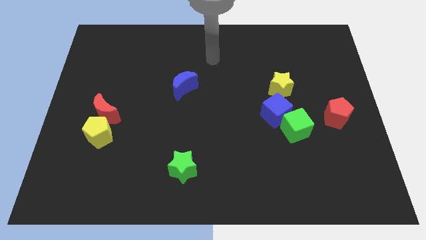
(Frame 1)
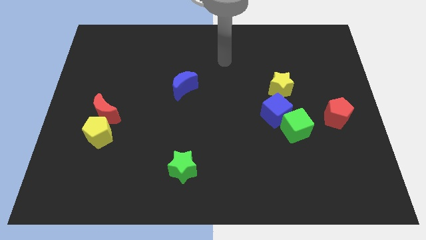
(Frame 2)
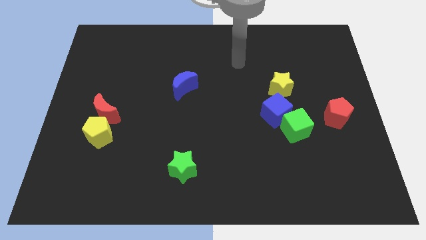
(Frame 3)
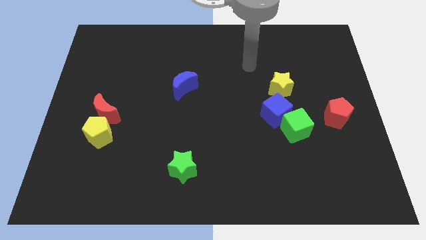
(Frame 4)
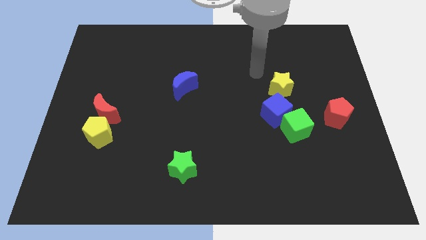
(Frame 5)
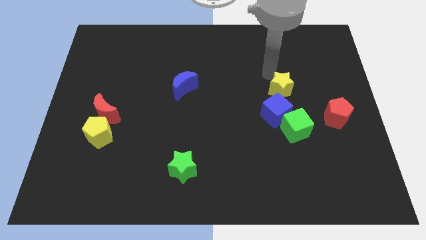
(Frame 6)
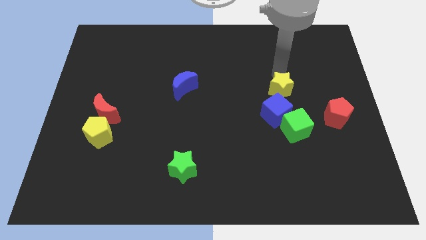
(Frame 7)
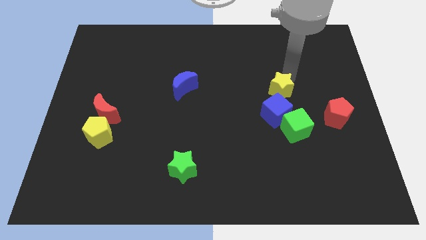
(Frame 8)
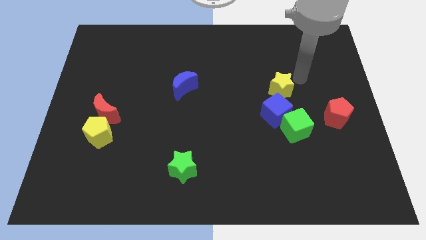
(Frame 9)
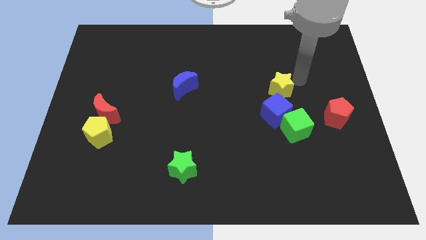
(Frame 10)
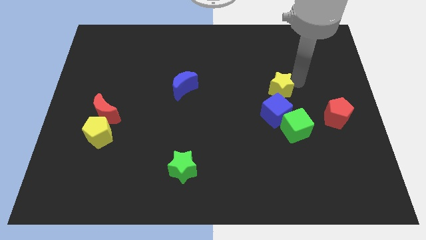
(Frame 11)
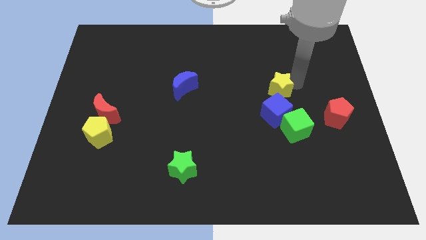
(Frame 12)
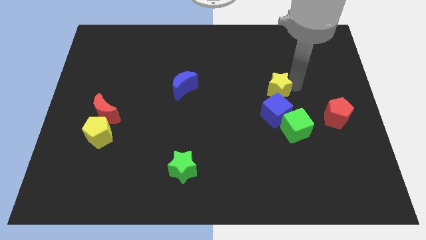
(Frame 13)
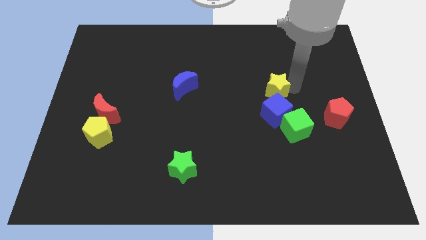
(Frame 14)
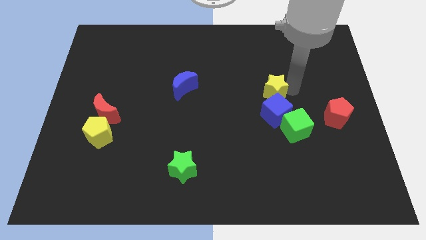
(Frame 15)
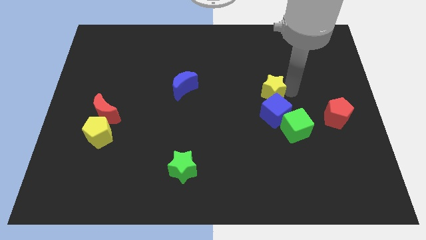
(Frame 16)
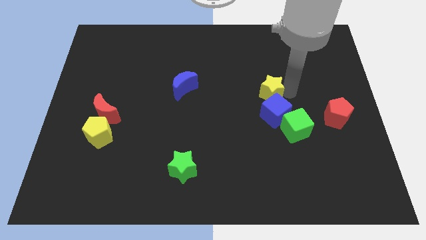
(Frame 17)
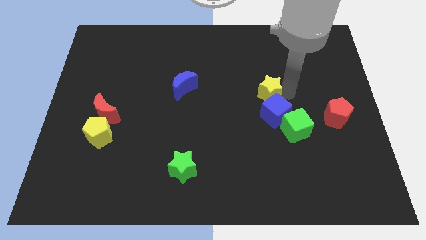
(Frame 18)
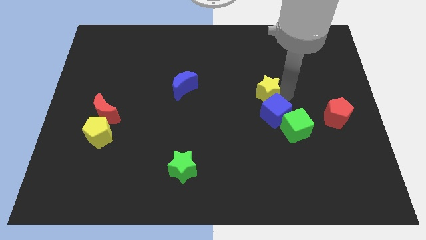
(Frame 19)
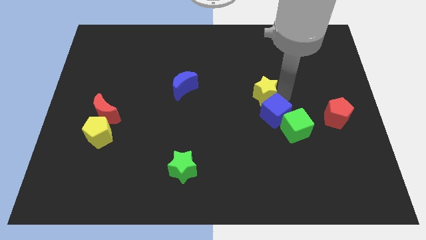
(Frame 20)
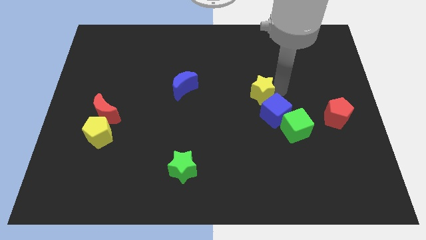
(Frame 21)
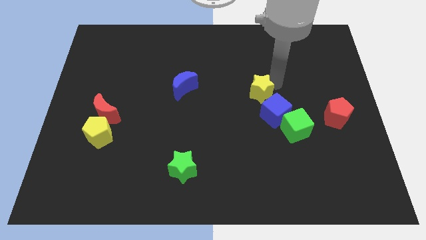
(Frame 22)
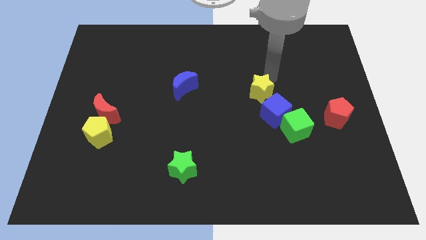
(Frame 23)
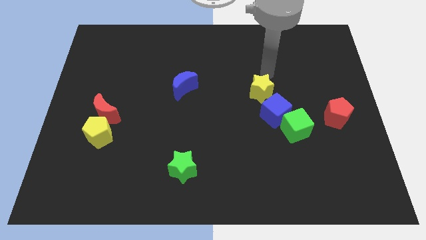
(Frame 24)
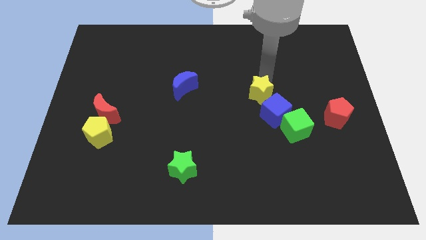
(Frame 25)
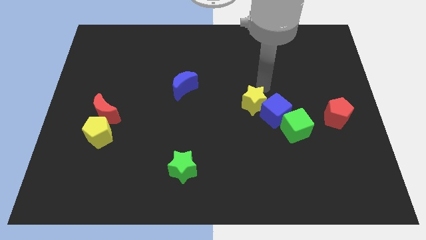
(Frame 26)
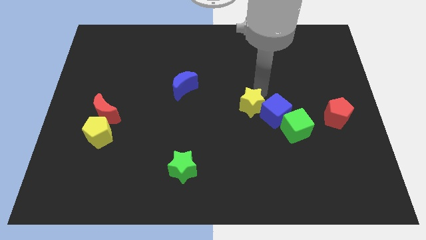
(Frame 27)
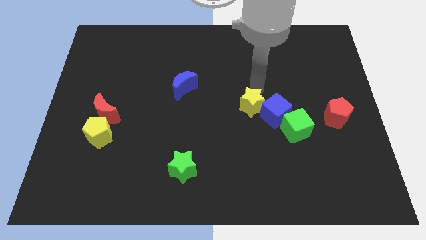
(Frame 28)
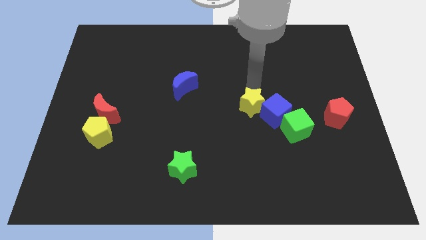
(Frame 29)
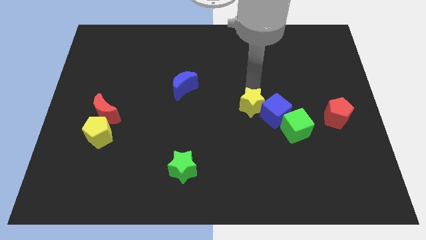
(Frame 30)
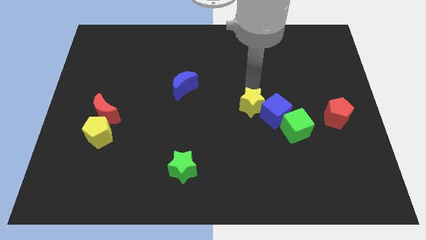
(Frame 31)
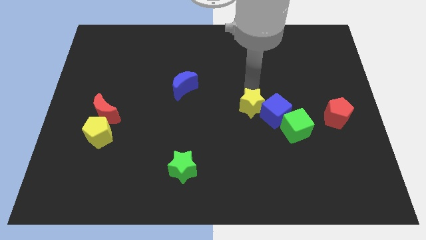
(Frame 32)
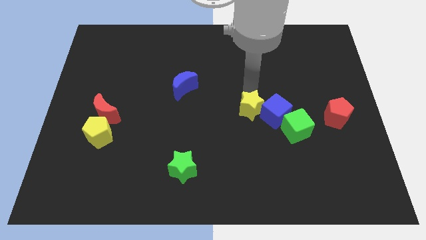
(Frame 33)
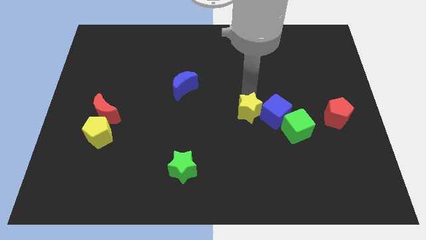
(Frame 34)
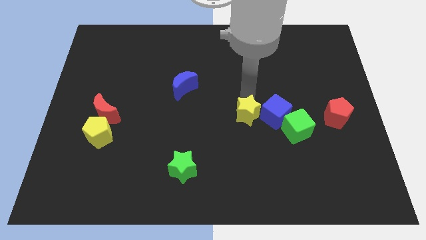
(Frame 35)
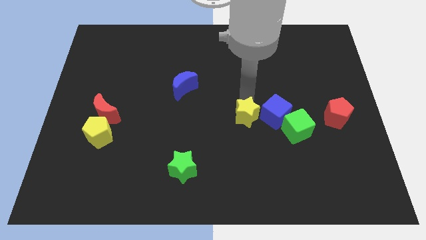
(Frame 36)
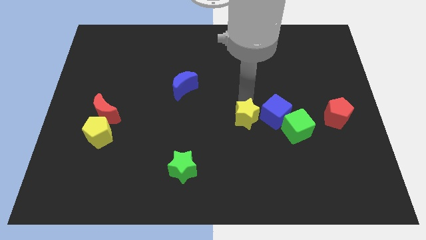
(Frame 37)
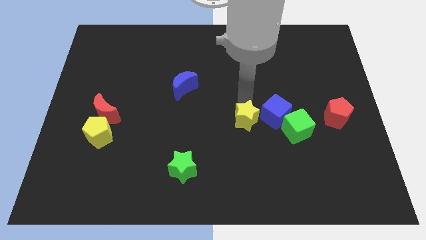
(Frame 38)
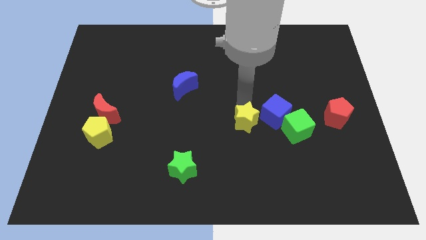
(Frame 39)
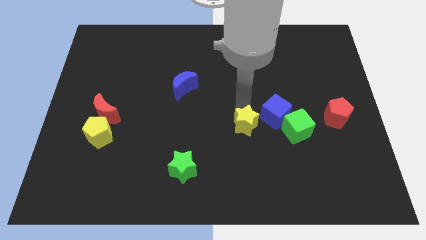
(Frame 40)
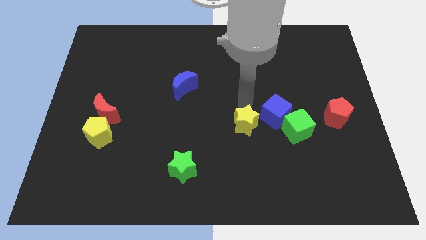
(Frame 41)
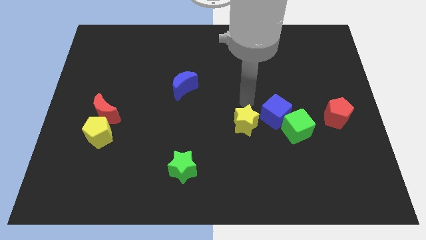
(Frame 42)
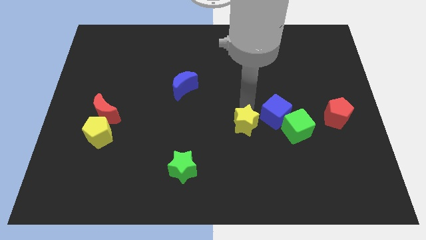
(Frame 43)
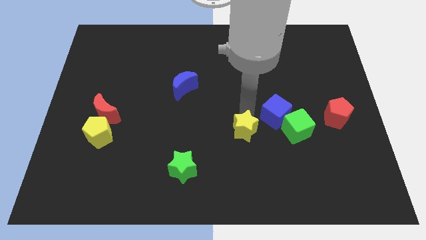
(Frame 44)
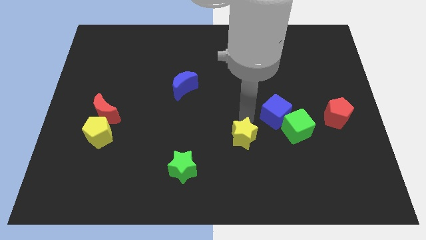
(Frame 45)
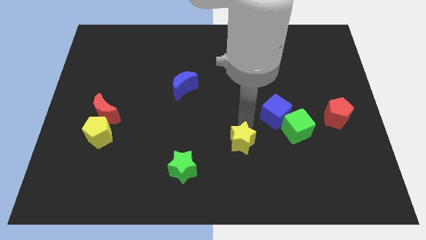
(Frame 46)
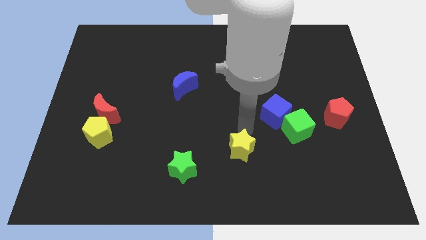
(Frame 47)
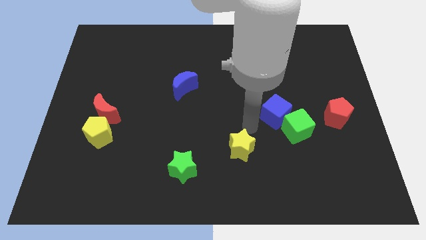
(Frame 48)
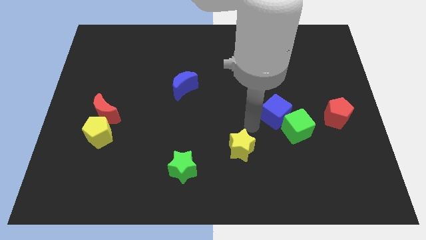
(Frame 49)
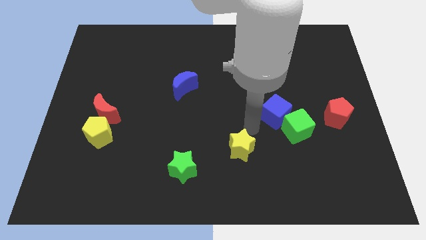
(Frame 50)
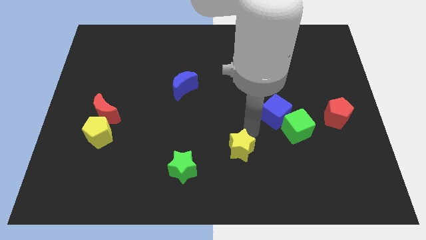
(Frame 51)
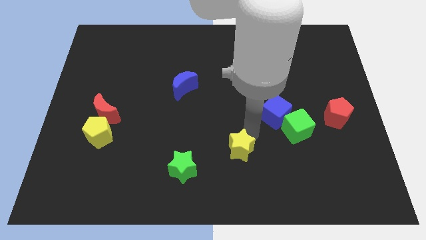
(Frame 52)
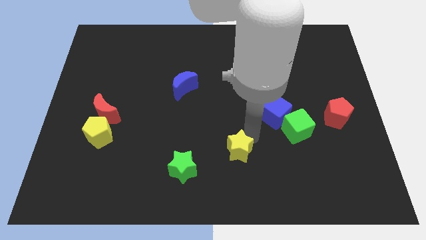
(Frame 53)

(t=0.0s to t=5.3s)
slide the yellow star just right of the green star

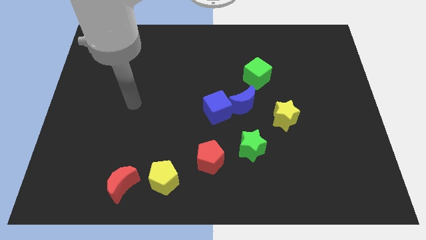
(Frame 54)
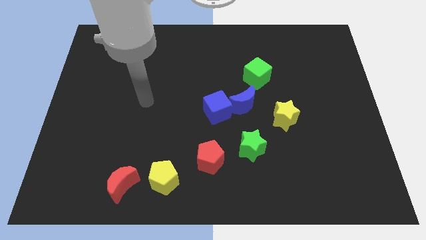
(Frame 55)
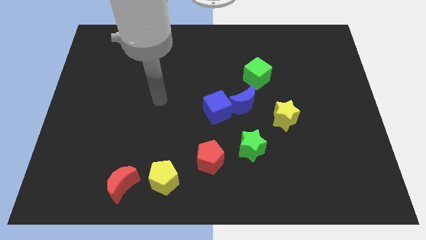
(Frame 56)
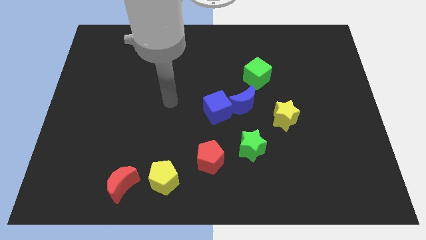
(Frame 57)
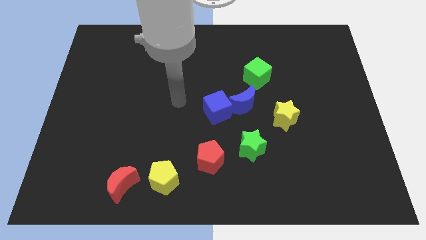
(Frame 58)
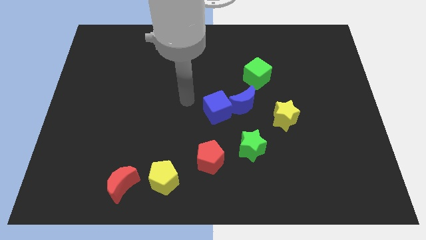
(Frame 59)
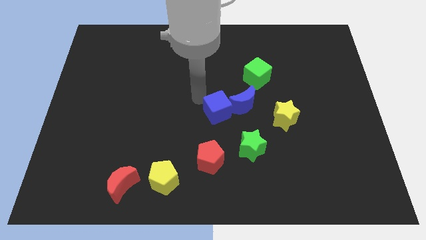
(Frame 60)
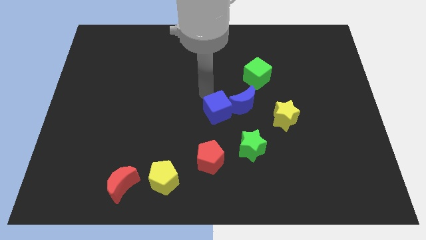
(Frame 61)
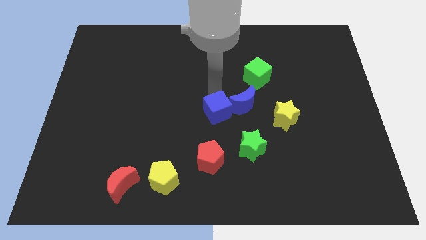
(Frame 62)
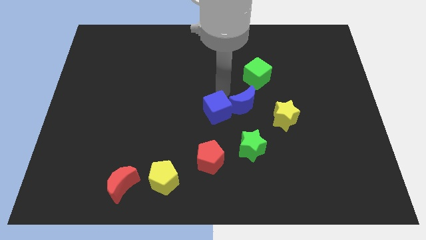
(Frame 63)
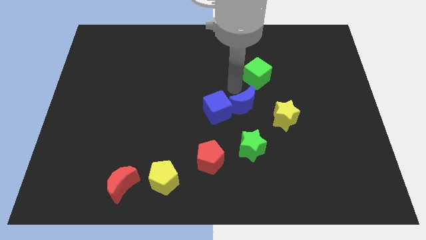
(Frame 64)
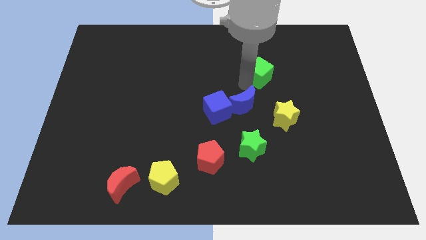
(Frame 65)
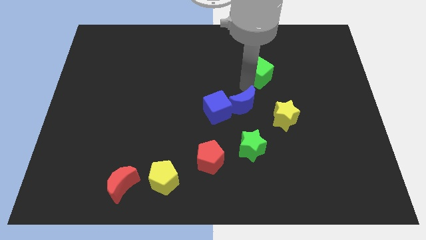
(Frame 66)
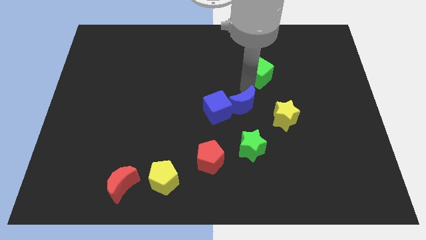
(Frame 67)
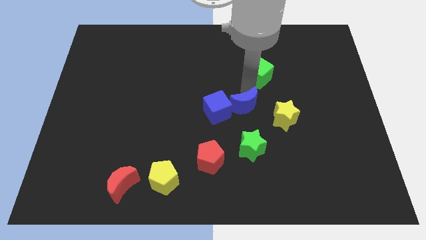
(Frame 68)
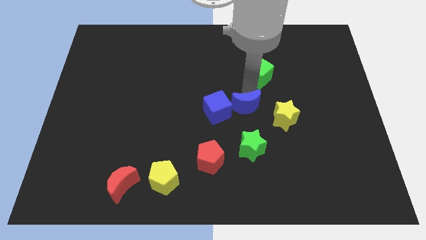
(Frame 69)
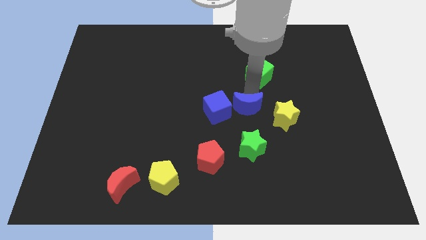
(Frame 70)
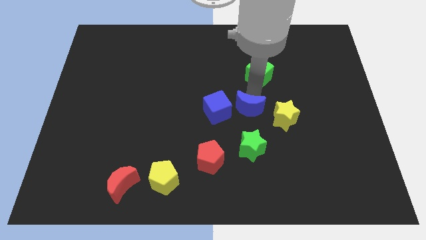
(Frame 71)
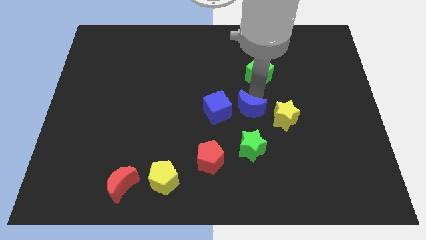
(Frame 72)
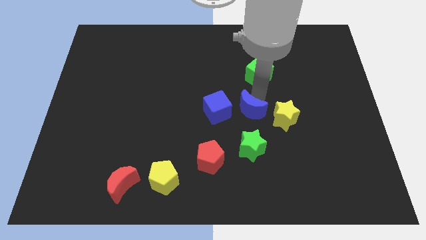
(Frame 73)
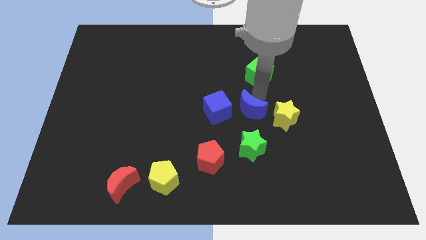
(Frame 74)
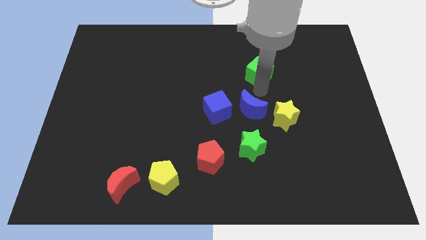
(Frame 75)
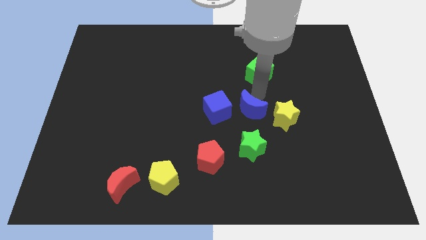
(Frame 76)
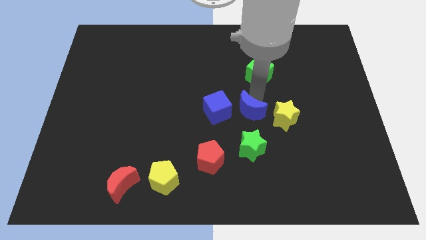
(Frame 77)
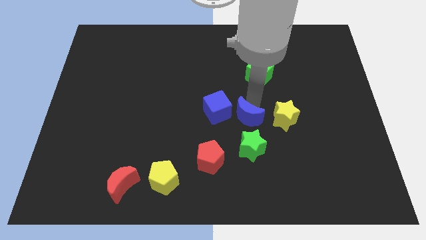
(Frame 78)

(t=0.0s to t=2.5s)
put the blue moon diagonally down and to the right of the blue cube

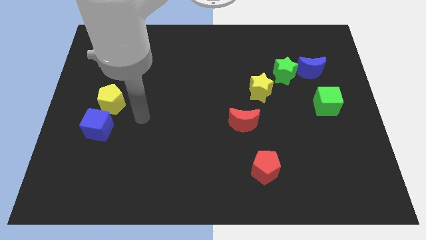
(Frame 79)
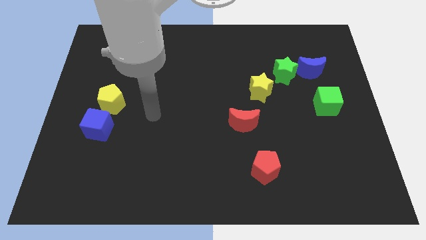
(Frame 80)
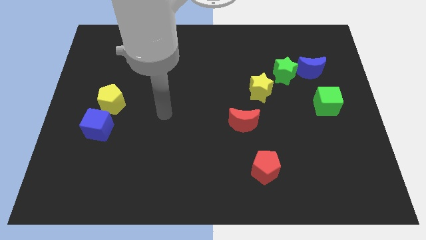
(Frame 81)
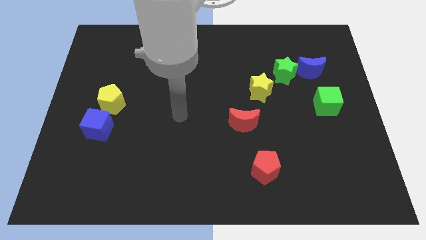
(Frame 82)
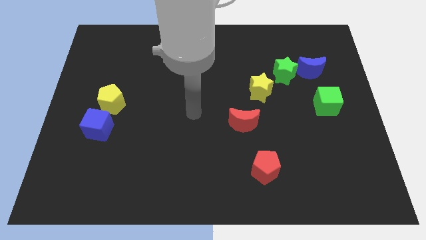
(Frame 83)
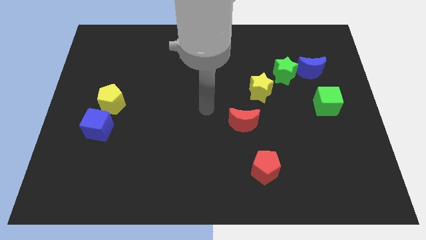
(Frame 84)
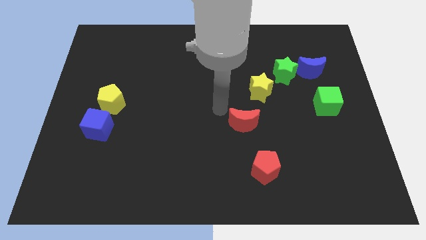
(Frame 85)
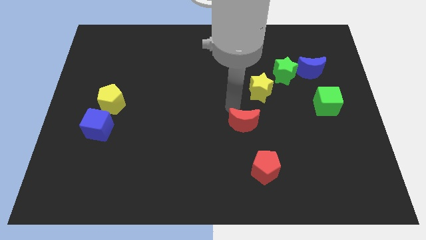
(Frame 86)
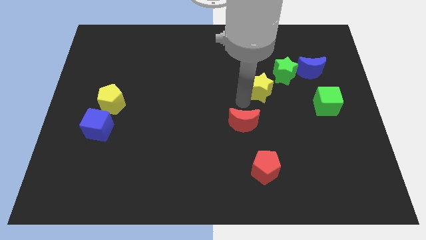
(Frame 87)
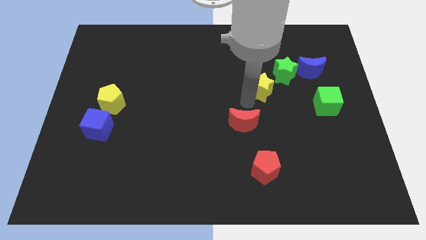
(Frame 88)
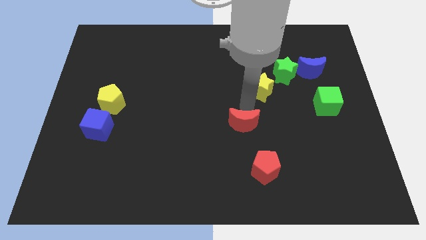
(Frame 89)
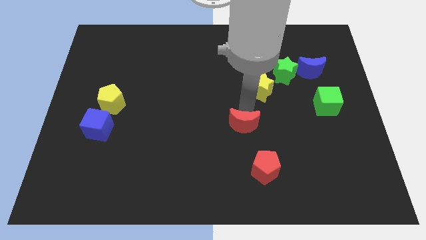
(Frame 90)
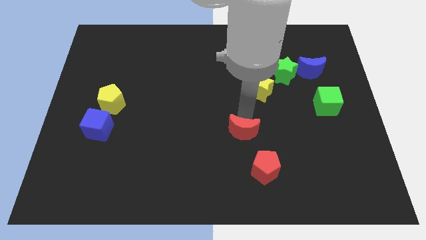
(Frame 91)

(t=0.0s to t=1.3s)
slide the red moon diagonally up and to the left of the red pentagon
